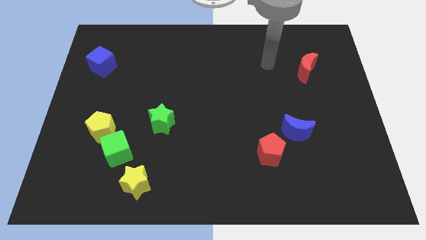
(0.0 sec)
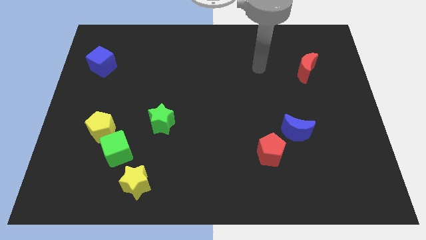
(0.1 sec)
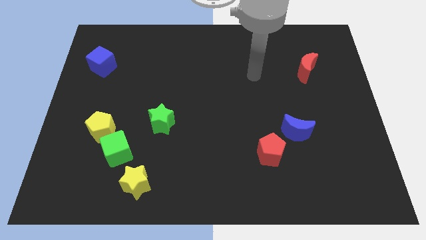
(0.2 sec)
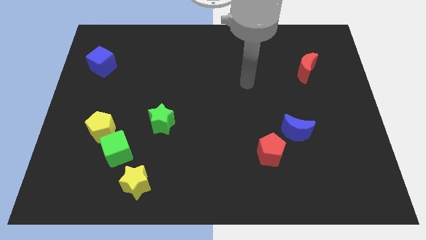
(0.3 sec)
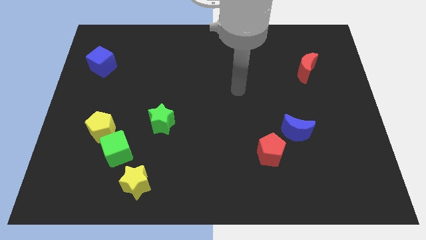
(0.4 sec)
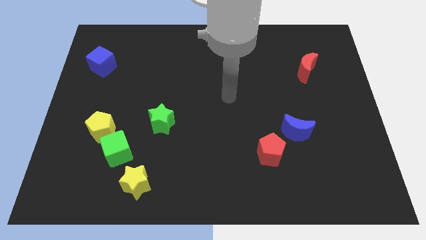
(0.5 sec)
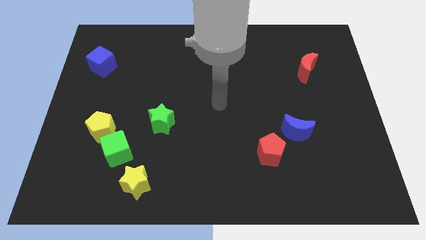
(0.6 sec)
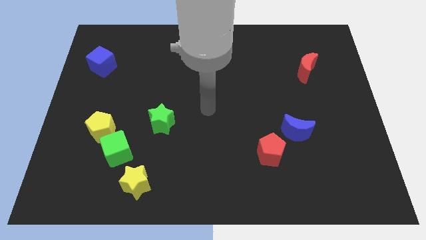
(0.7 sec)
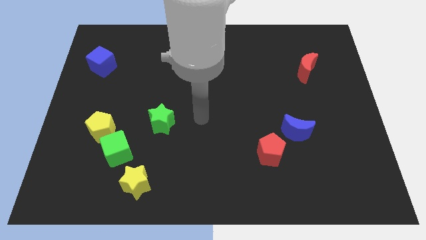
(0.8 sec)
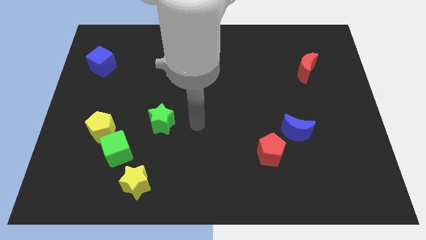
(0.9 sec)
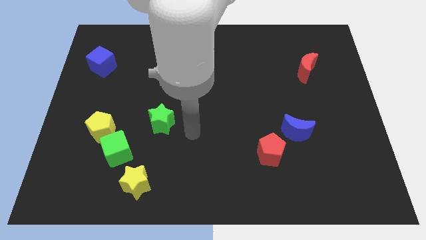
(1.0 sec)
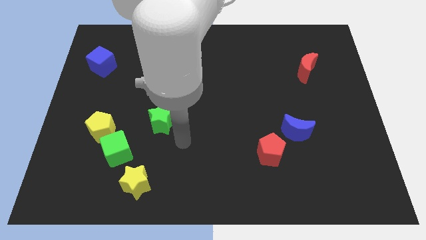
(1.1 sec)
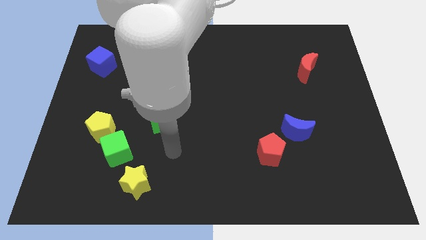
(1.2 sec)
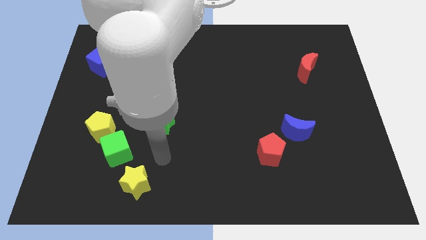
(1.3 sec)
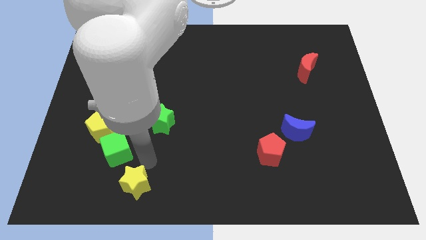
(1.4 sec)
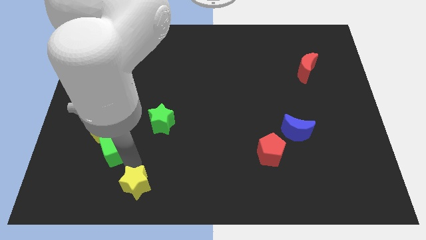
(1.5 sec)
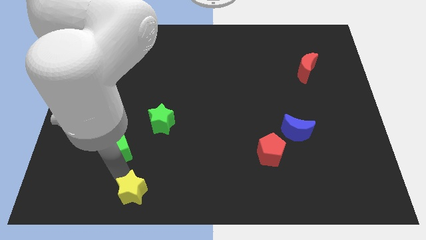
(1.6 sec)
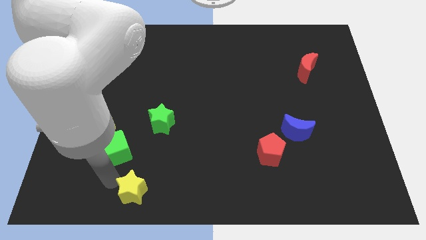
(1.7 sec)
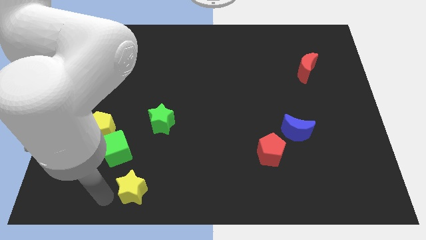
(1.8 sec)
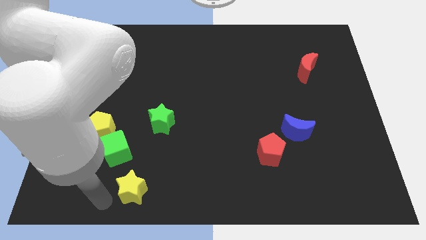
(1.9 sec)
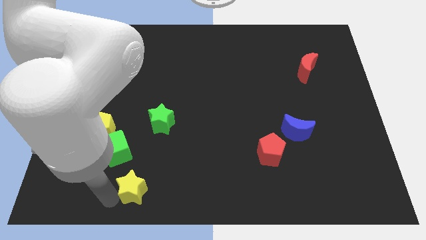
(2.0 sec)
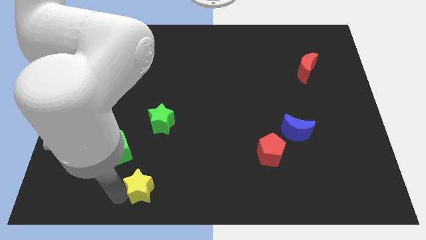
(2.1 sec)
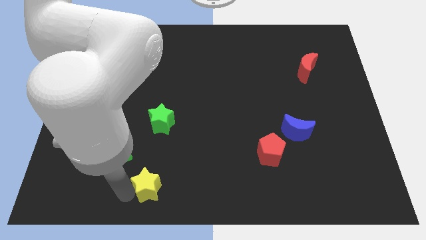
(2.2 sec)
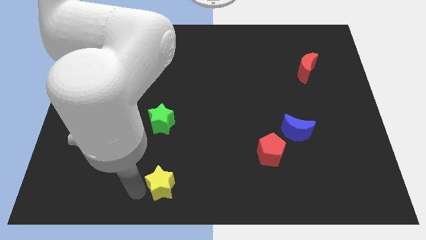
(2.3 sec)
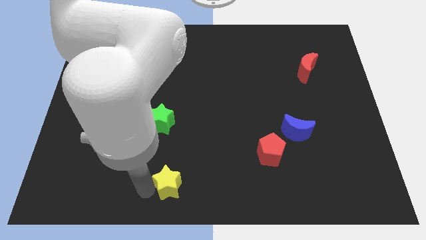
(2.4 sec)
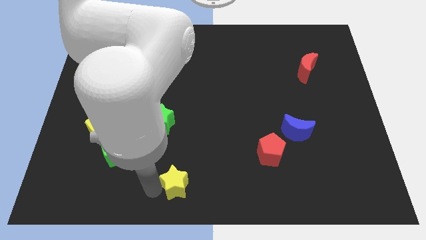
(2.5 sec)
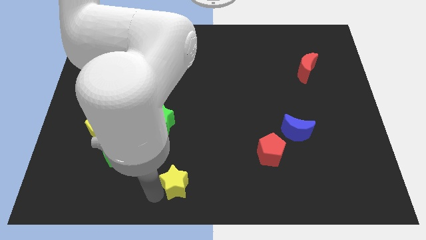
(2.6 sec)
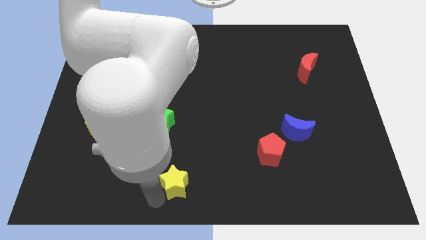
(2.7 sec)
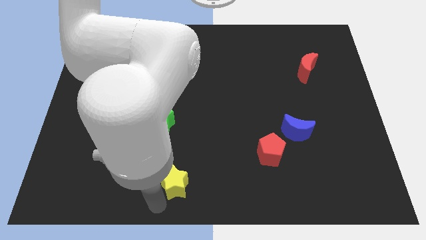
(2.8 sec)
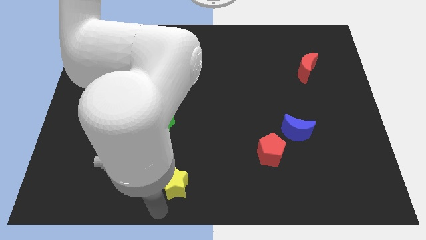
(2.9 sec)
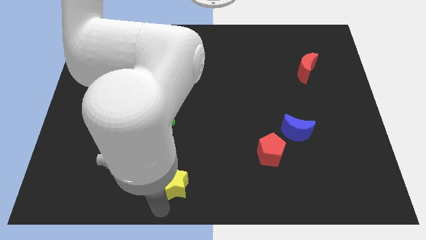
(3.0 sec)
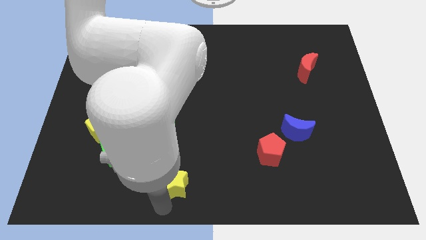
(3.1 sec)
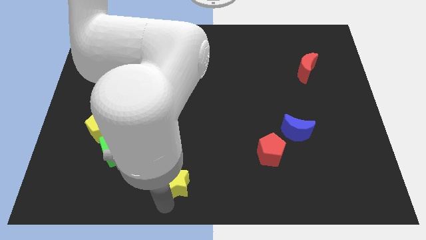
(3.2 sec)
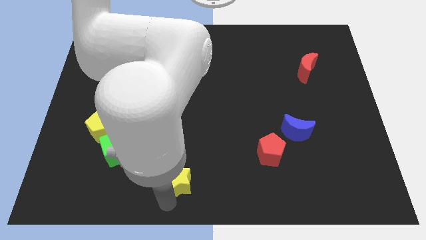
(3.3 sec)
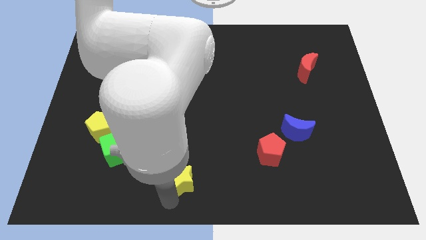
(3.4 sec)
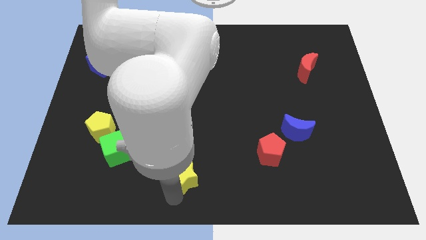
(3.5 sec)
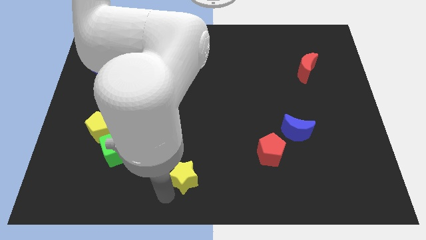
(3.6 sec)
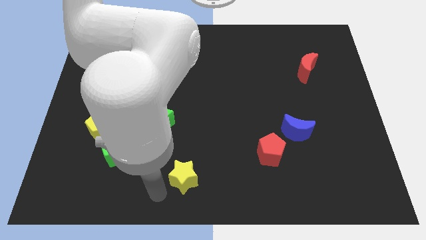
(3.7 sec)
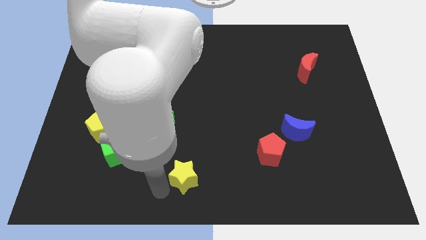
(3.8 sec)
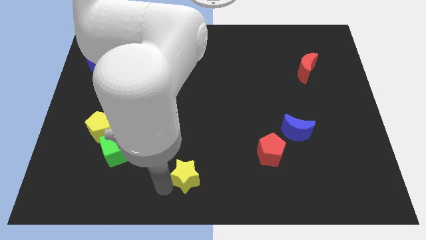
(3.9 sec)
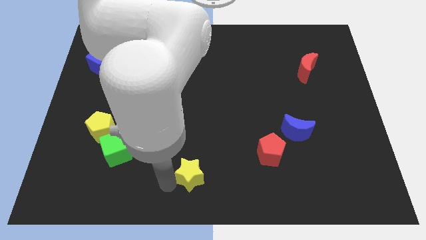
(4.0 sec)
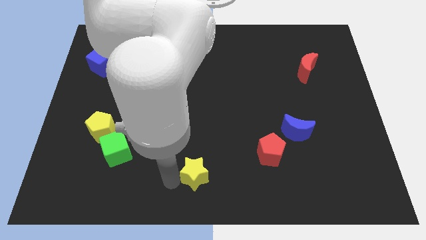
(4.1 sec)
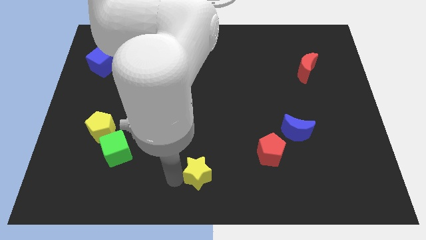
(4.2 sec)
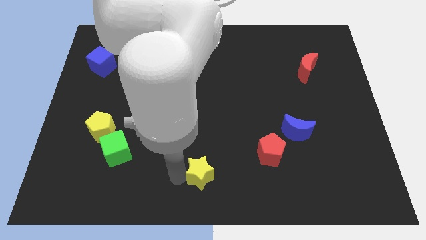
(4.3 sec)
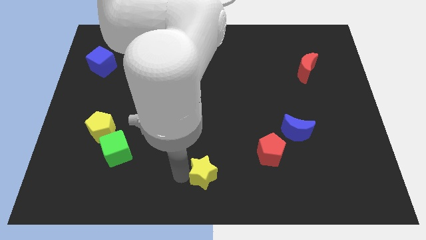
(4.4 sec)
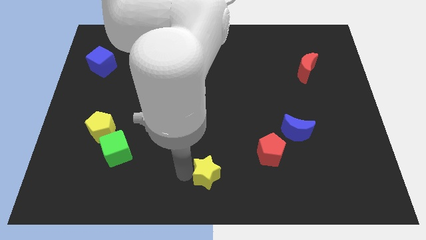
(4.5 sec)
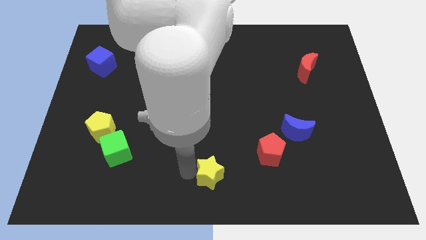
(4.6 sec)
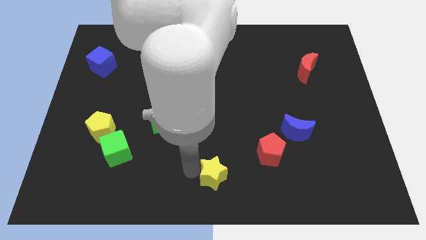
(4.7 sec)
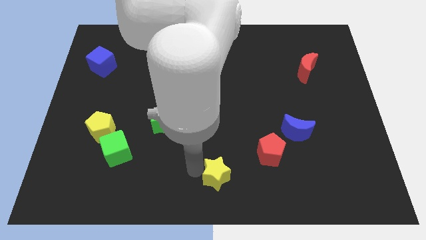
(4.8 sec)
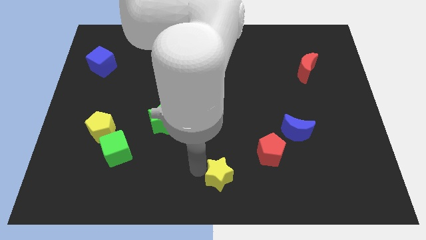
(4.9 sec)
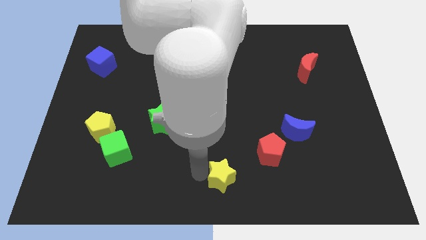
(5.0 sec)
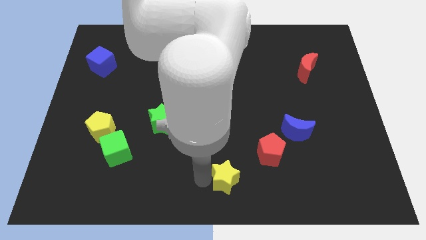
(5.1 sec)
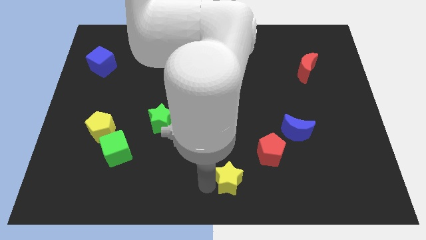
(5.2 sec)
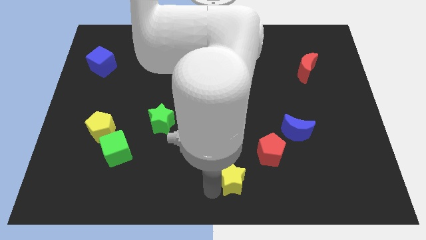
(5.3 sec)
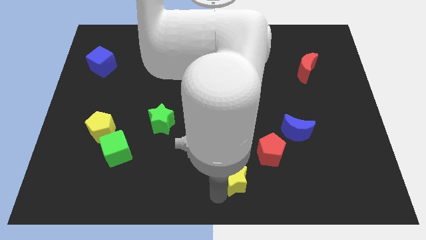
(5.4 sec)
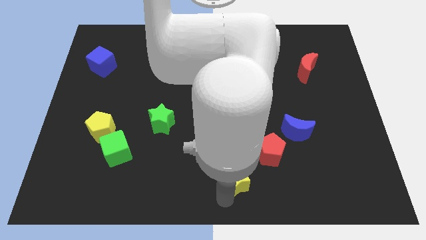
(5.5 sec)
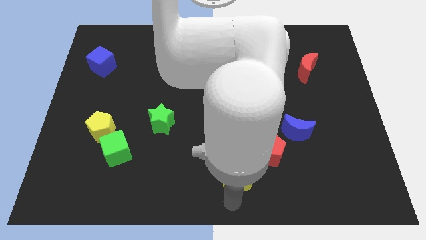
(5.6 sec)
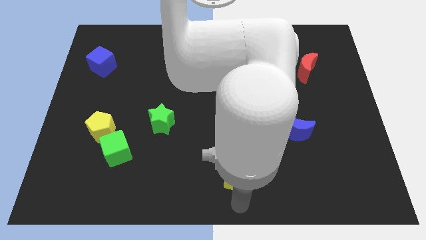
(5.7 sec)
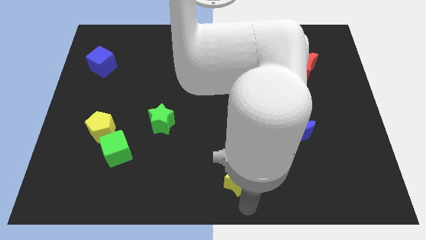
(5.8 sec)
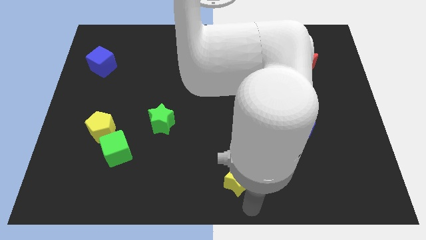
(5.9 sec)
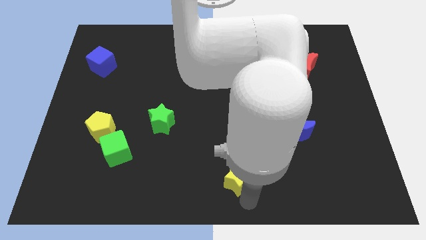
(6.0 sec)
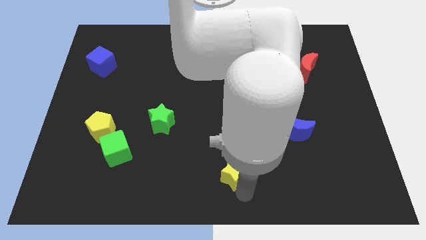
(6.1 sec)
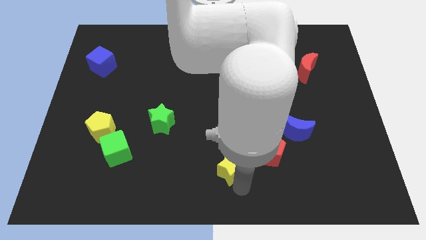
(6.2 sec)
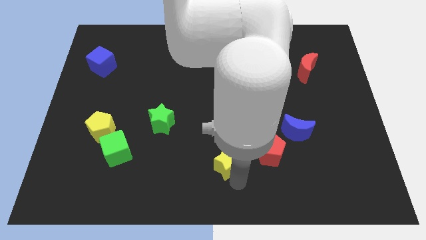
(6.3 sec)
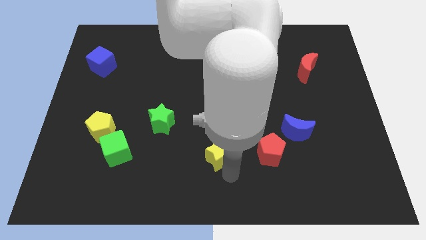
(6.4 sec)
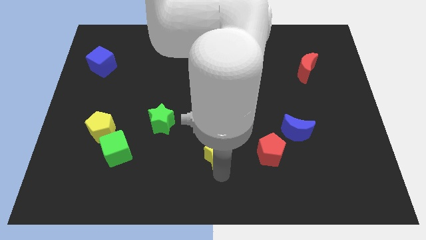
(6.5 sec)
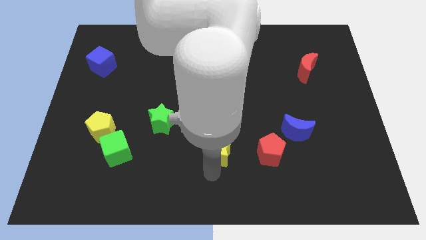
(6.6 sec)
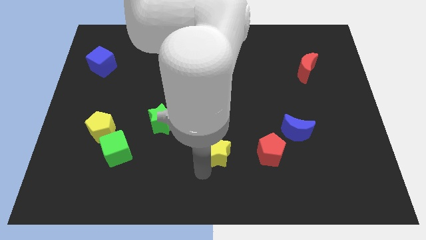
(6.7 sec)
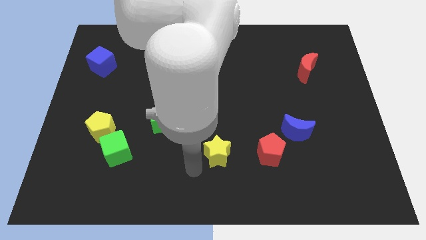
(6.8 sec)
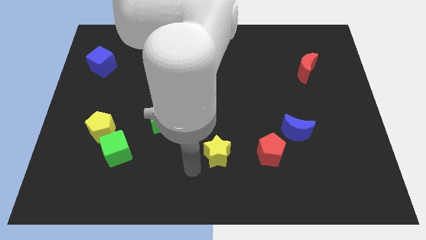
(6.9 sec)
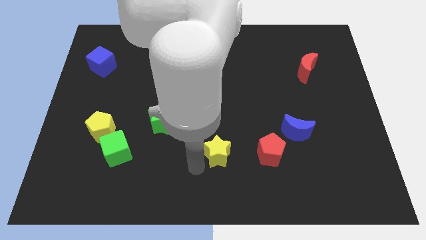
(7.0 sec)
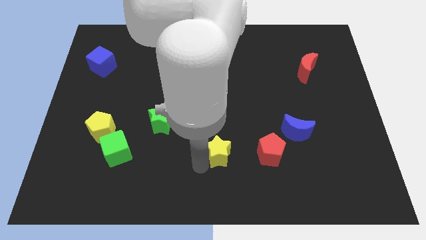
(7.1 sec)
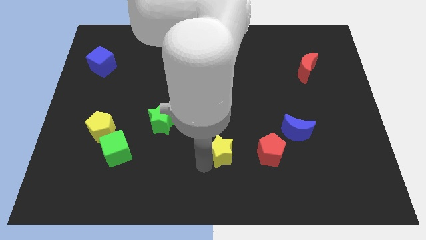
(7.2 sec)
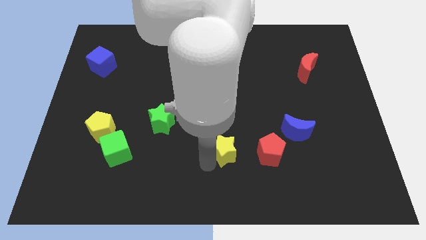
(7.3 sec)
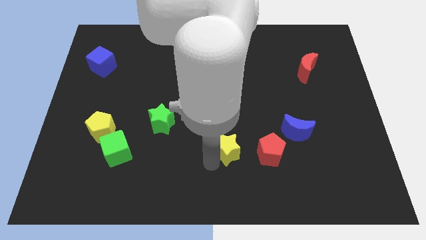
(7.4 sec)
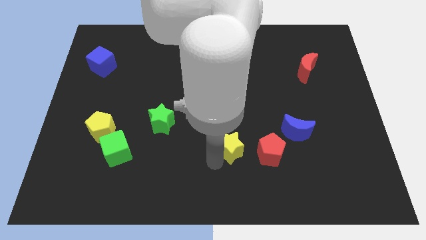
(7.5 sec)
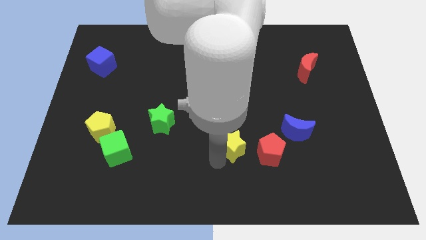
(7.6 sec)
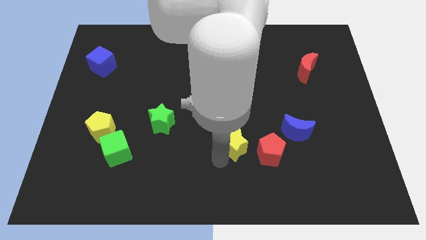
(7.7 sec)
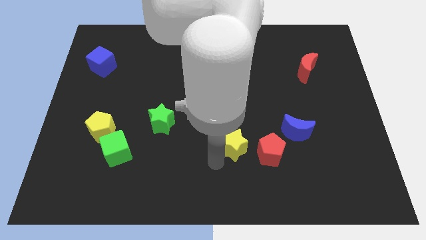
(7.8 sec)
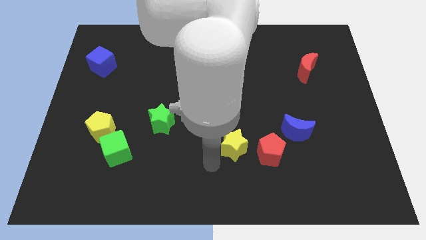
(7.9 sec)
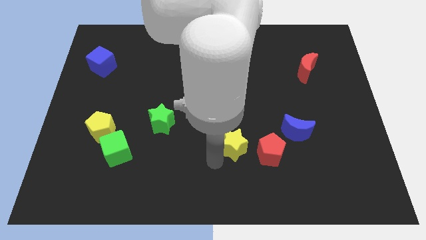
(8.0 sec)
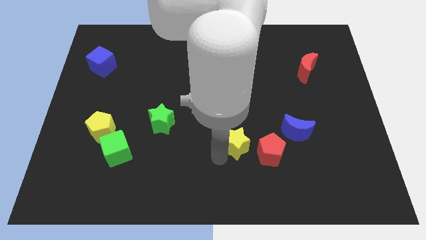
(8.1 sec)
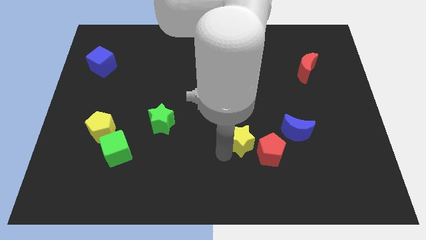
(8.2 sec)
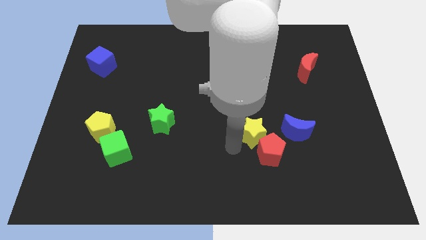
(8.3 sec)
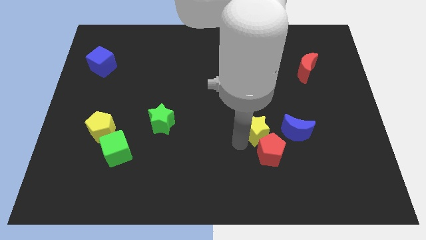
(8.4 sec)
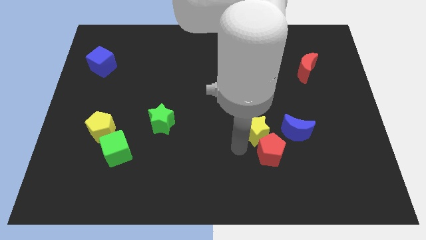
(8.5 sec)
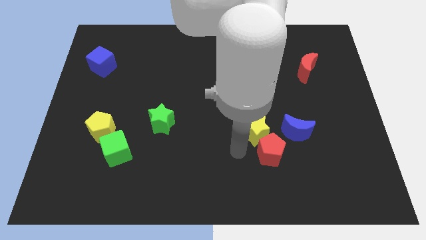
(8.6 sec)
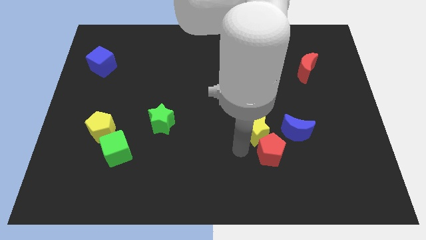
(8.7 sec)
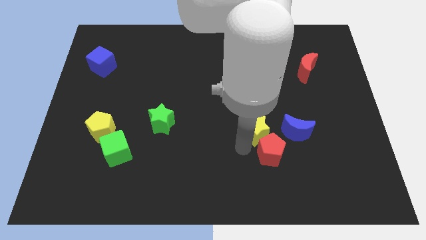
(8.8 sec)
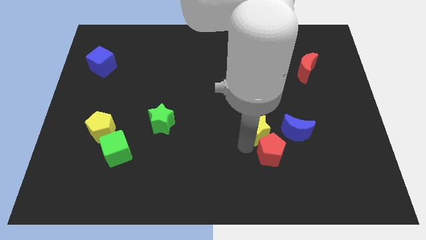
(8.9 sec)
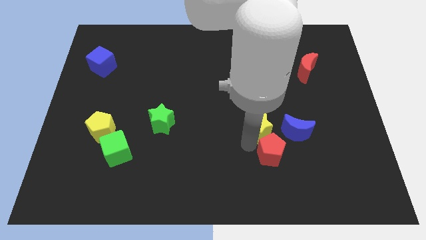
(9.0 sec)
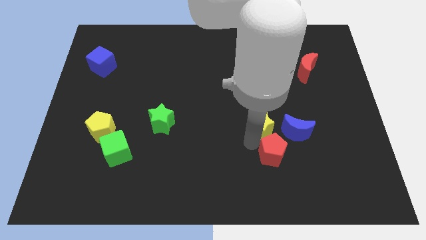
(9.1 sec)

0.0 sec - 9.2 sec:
put the yellow star diagonally up and to the left of the blue moon
